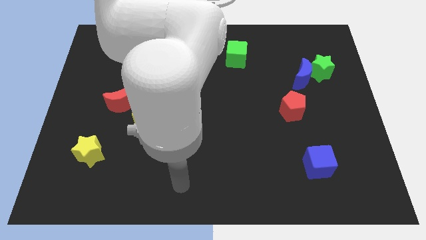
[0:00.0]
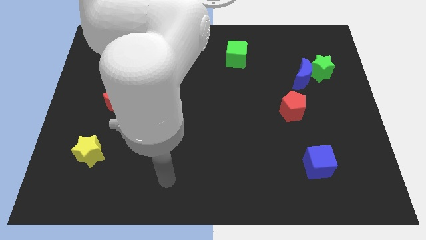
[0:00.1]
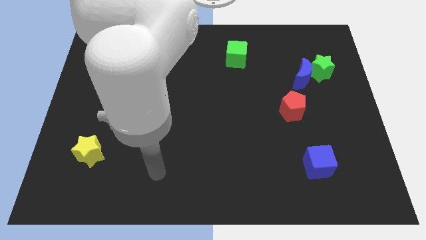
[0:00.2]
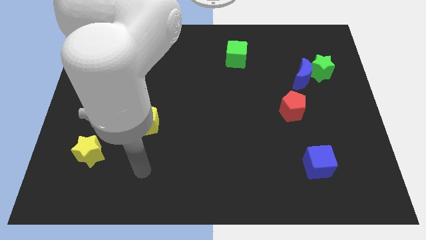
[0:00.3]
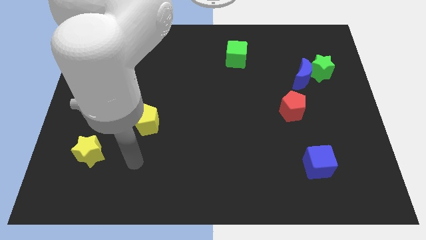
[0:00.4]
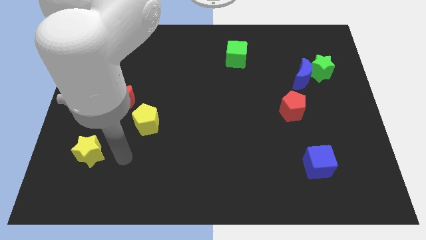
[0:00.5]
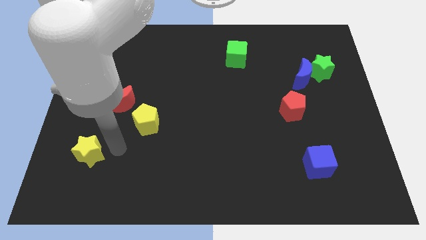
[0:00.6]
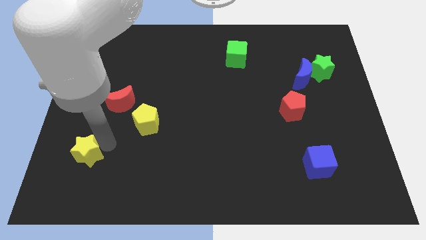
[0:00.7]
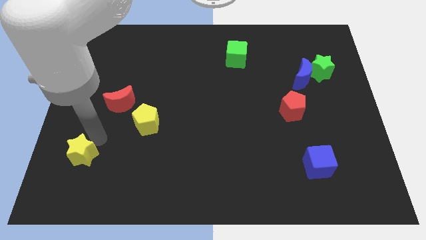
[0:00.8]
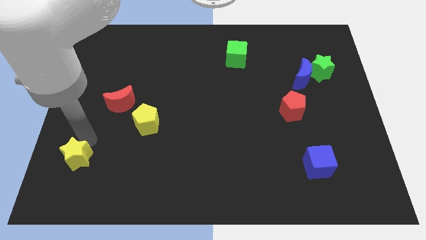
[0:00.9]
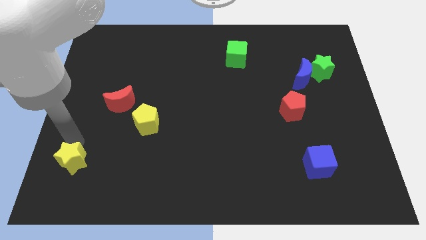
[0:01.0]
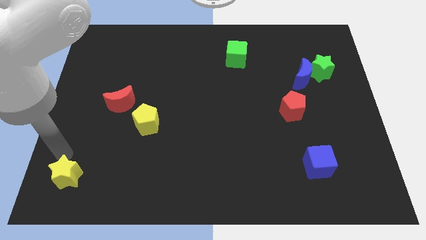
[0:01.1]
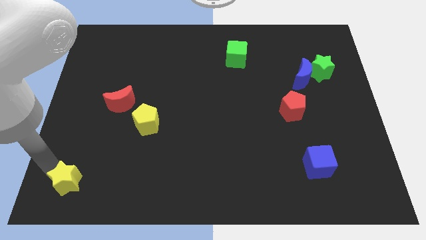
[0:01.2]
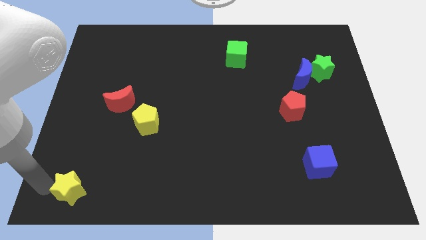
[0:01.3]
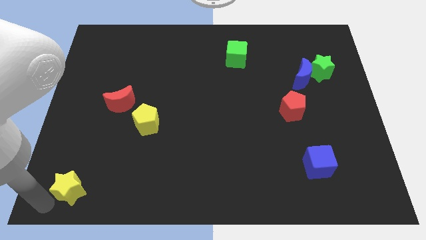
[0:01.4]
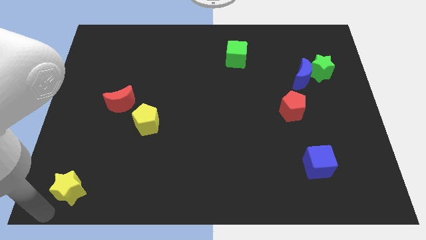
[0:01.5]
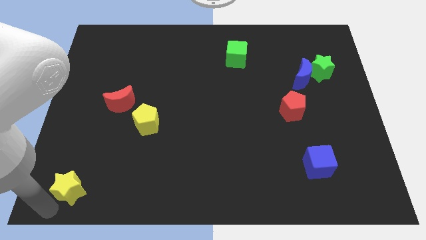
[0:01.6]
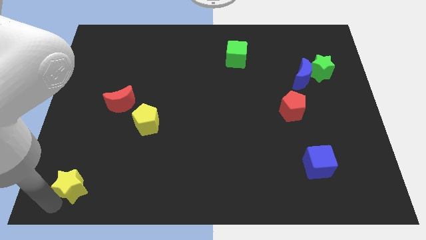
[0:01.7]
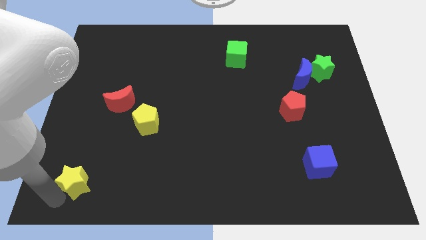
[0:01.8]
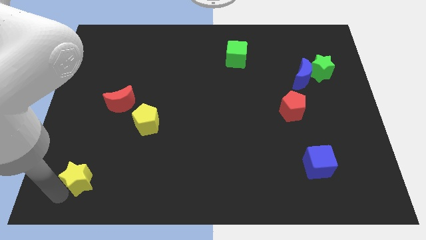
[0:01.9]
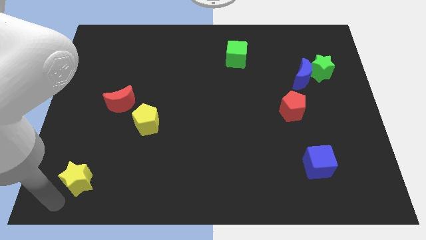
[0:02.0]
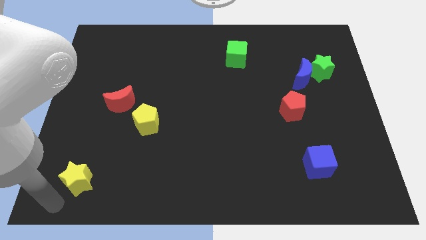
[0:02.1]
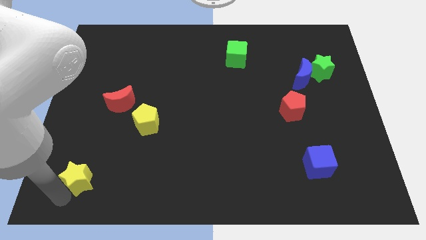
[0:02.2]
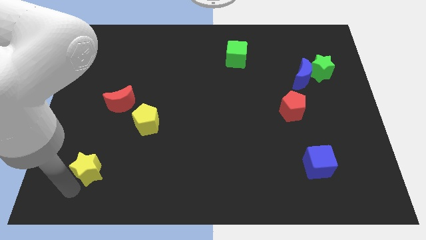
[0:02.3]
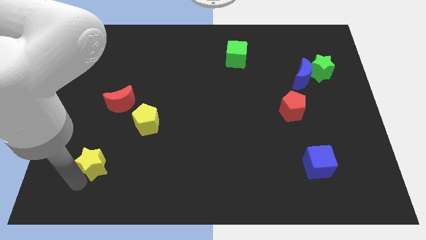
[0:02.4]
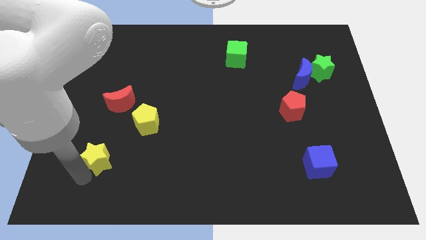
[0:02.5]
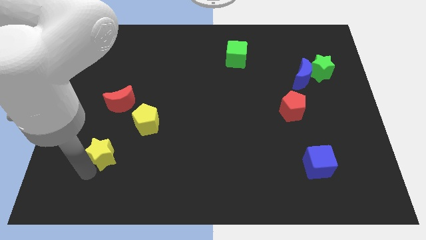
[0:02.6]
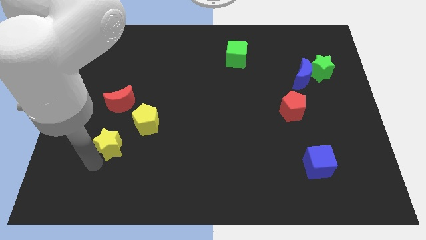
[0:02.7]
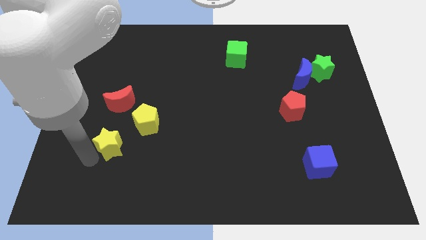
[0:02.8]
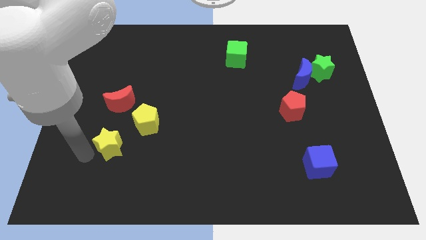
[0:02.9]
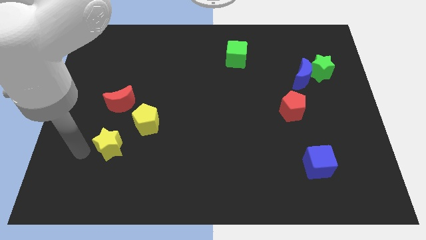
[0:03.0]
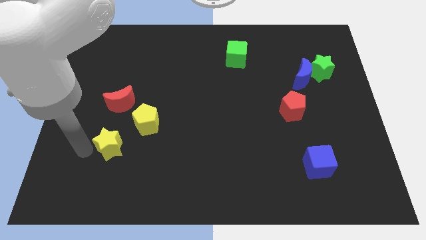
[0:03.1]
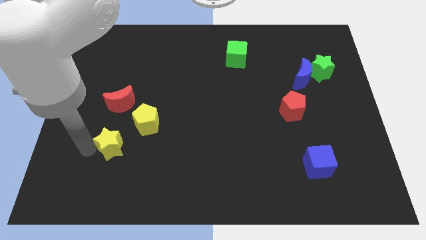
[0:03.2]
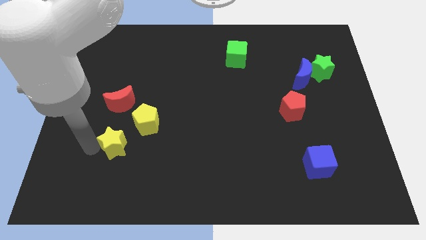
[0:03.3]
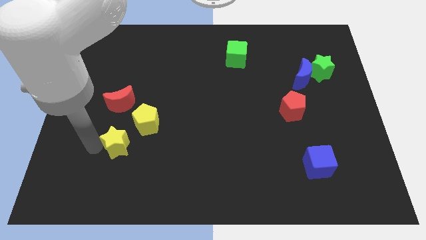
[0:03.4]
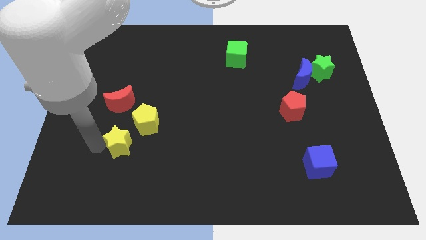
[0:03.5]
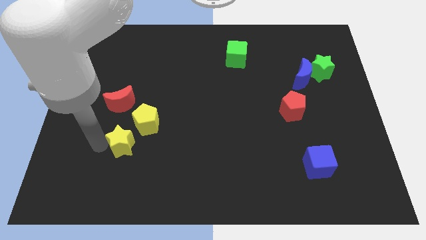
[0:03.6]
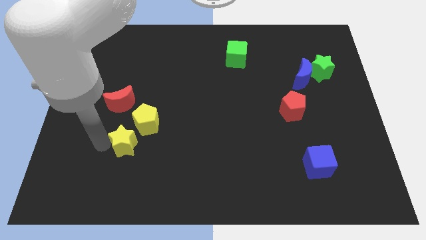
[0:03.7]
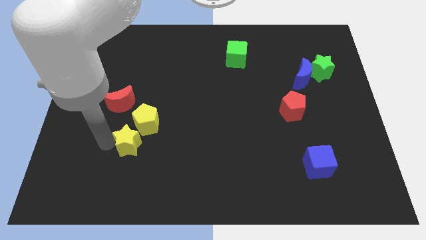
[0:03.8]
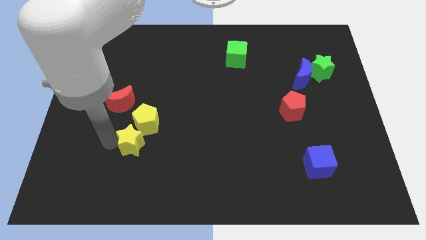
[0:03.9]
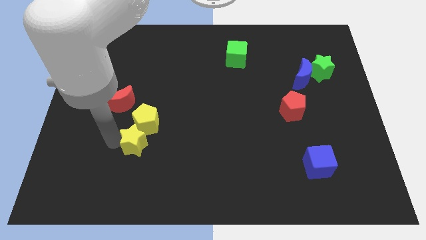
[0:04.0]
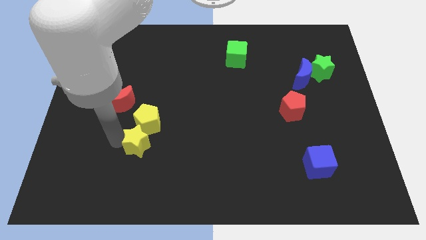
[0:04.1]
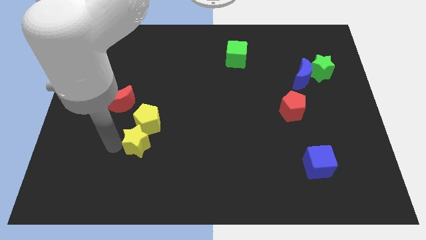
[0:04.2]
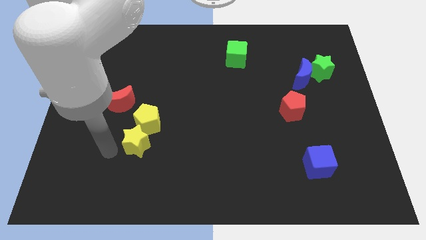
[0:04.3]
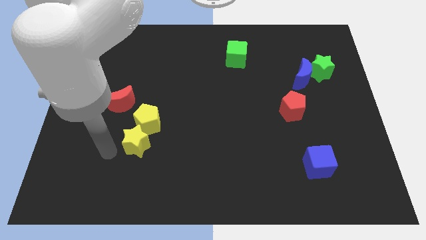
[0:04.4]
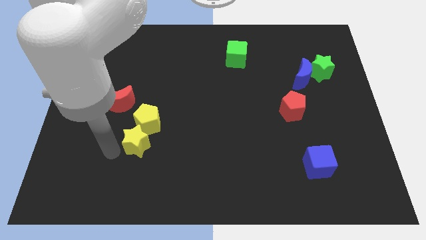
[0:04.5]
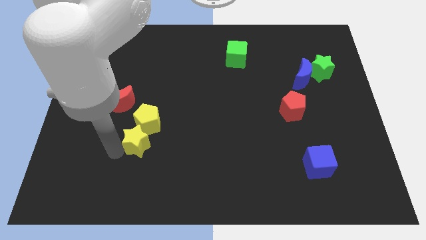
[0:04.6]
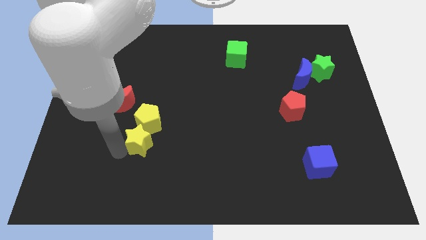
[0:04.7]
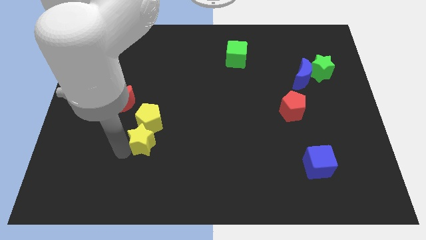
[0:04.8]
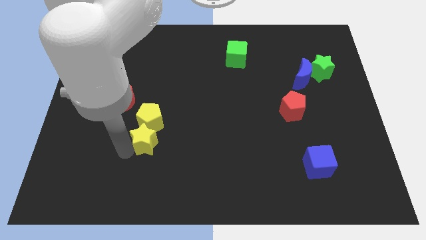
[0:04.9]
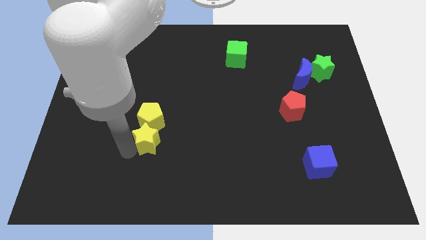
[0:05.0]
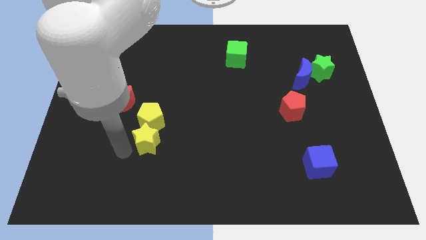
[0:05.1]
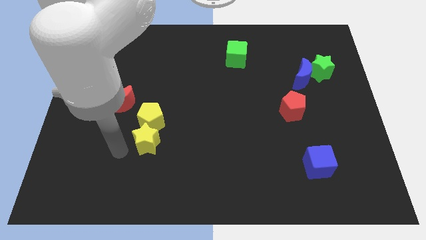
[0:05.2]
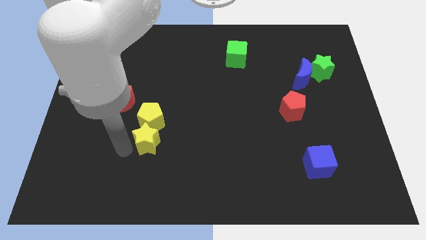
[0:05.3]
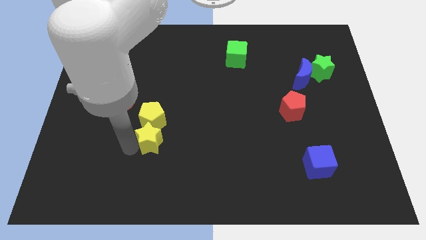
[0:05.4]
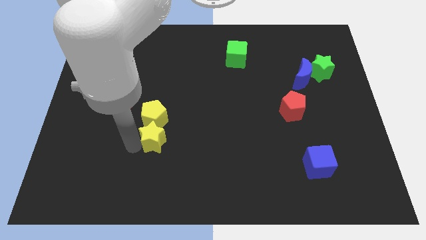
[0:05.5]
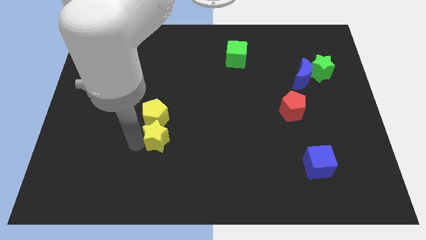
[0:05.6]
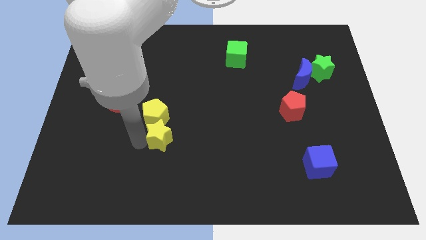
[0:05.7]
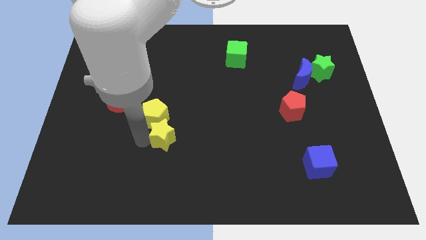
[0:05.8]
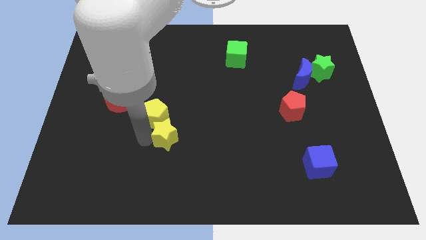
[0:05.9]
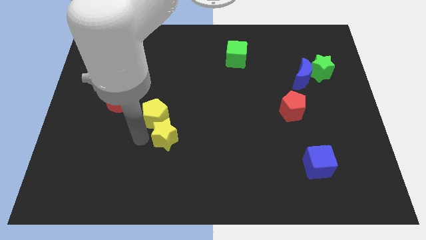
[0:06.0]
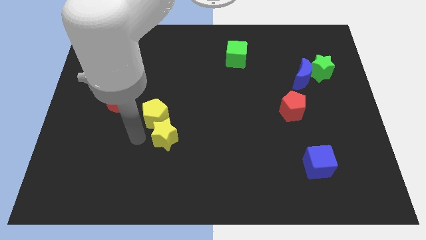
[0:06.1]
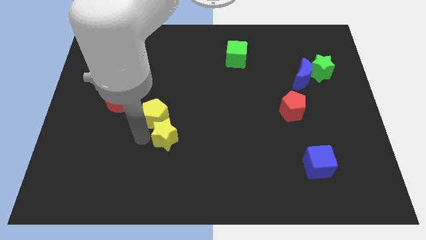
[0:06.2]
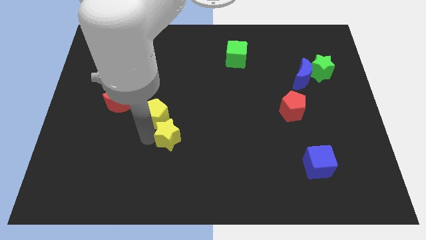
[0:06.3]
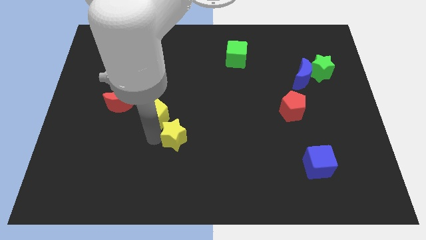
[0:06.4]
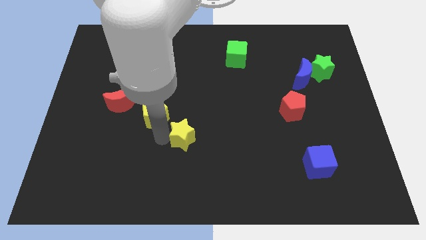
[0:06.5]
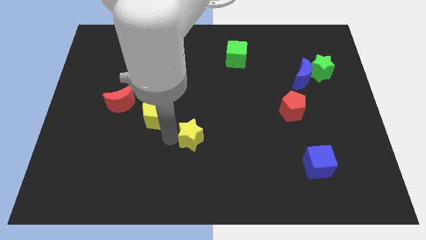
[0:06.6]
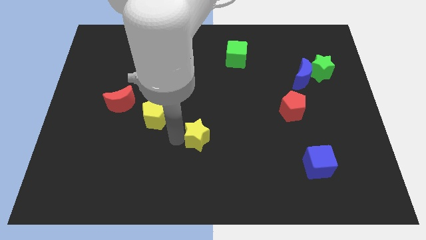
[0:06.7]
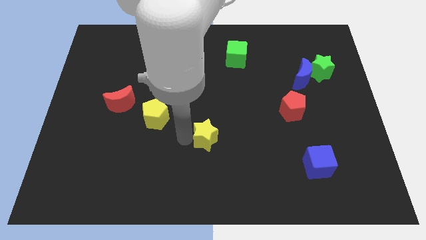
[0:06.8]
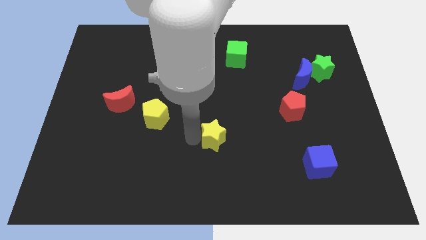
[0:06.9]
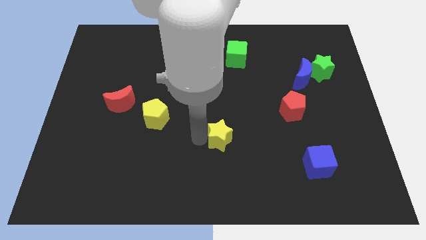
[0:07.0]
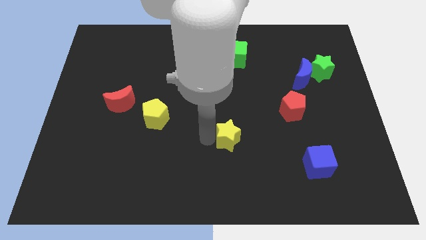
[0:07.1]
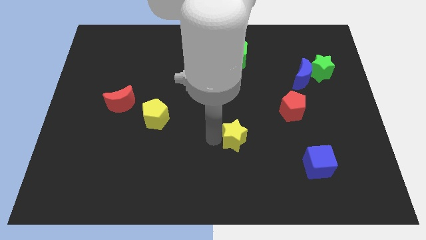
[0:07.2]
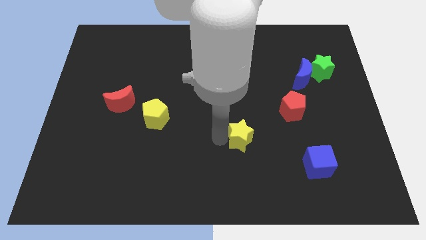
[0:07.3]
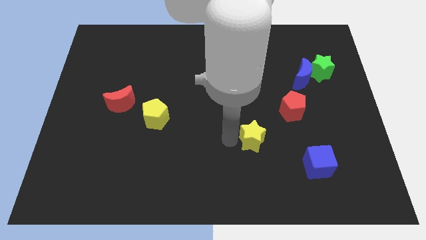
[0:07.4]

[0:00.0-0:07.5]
push the yellow star to the bottom left side of the red pentagon
